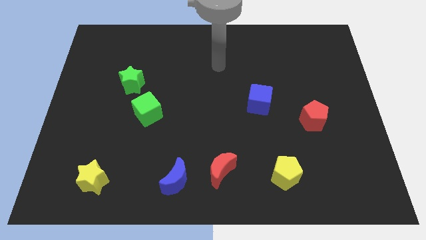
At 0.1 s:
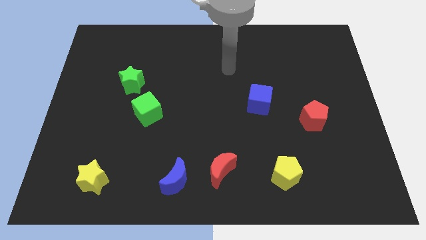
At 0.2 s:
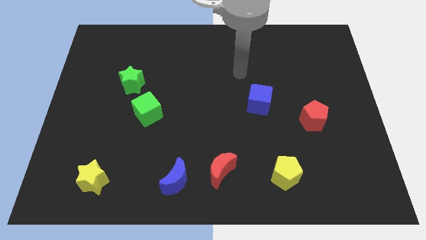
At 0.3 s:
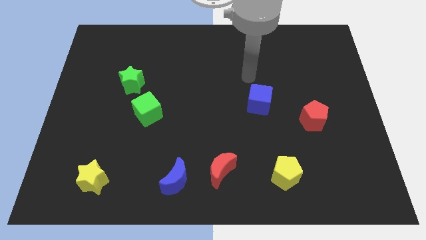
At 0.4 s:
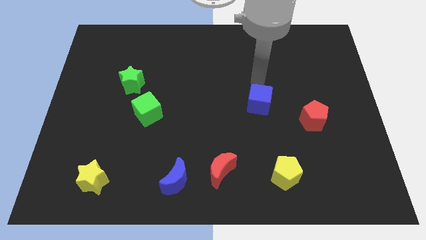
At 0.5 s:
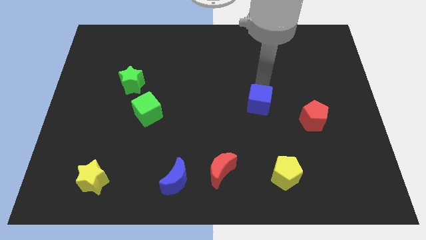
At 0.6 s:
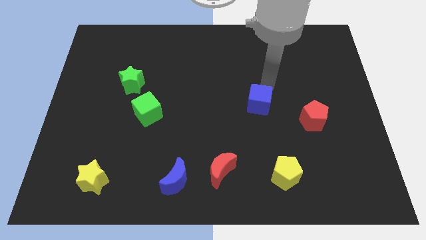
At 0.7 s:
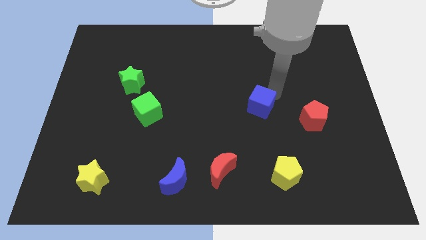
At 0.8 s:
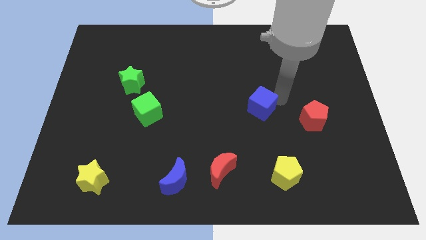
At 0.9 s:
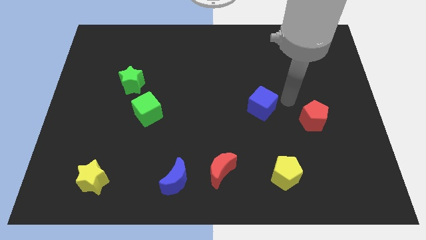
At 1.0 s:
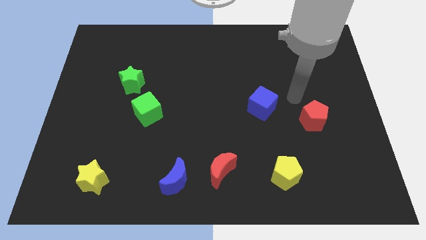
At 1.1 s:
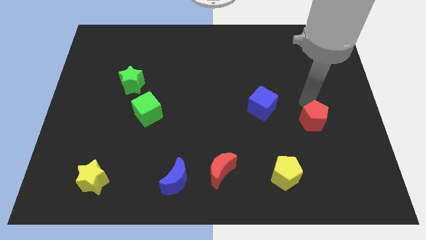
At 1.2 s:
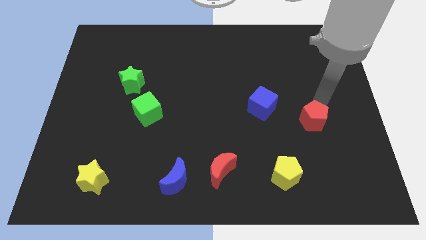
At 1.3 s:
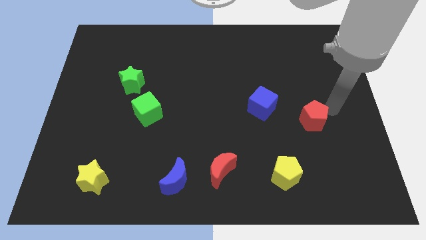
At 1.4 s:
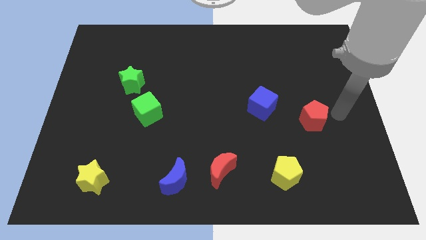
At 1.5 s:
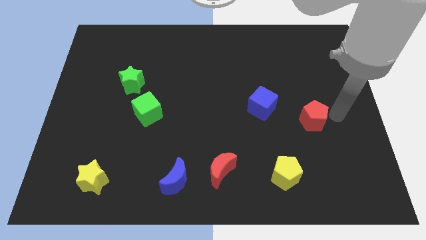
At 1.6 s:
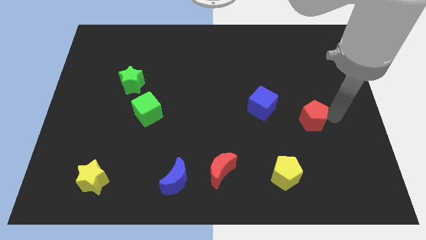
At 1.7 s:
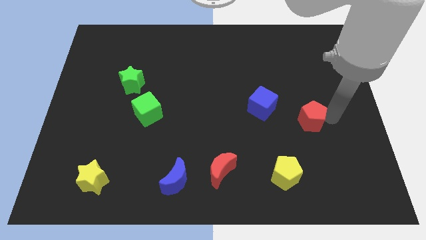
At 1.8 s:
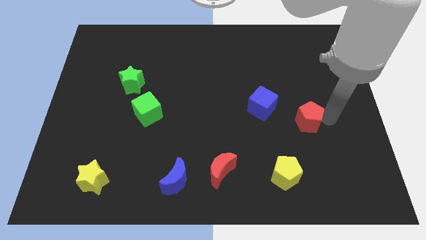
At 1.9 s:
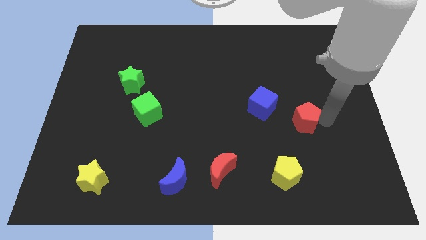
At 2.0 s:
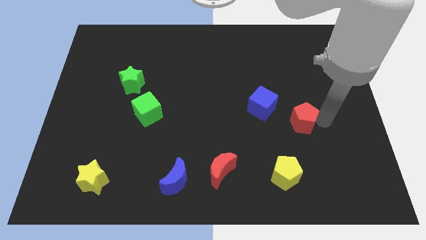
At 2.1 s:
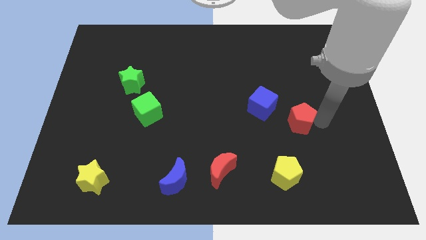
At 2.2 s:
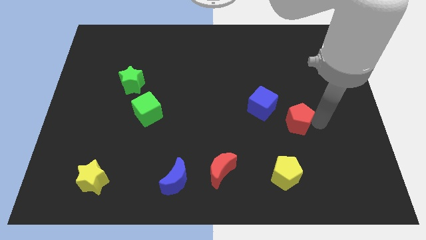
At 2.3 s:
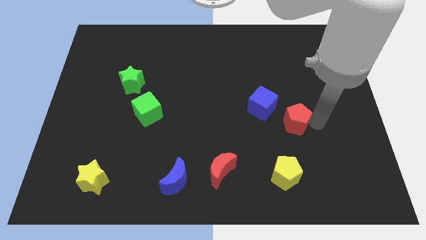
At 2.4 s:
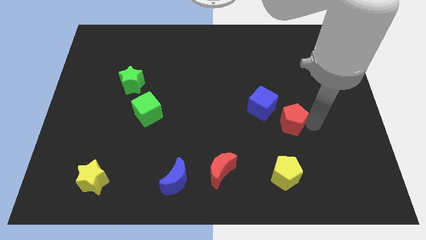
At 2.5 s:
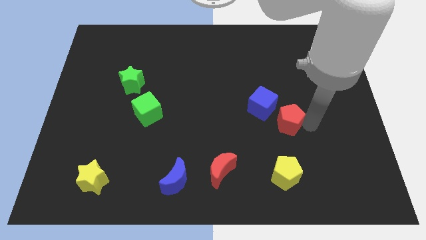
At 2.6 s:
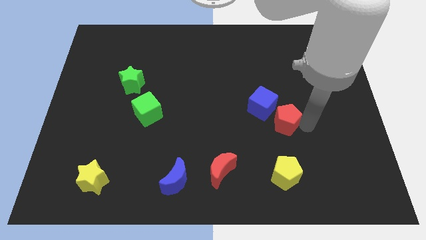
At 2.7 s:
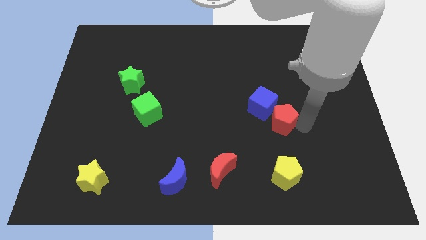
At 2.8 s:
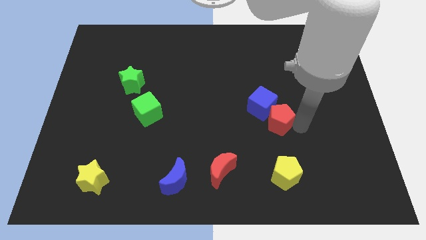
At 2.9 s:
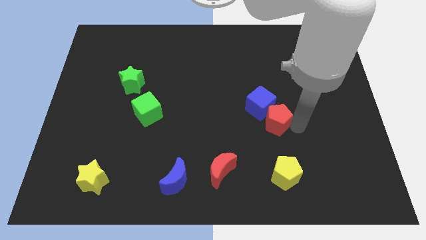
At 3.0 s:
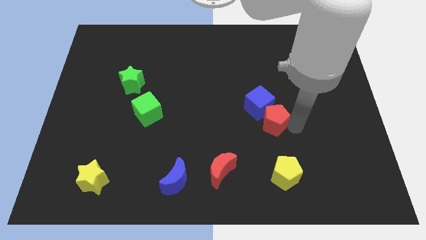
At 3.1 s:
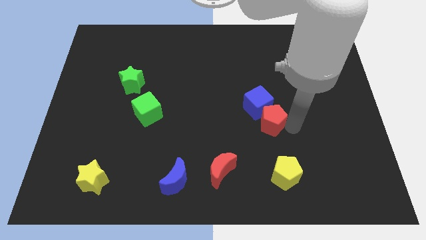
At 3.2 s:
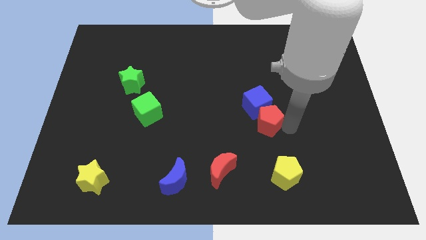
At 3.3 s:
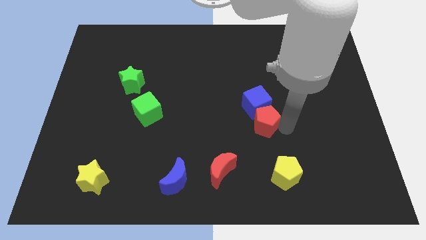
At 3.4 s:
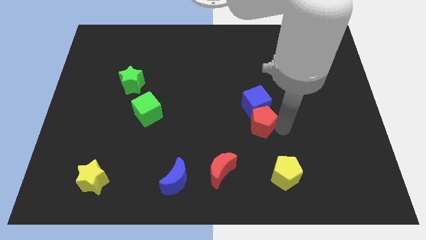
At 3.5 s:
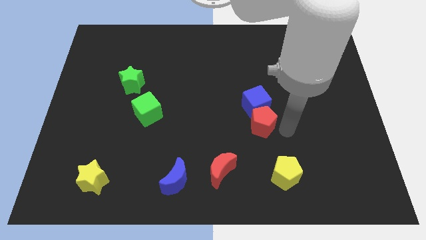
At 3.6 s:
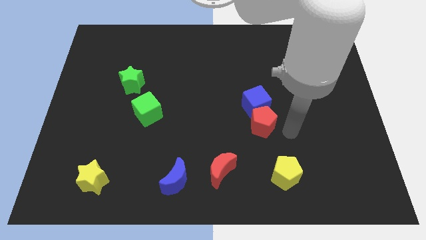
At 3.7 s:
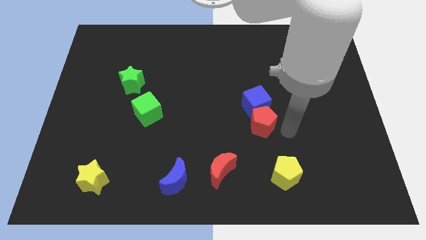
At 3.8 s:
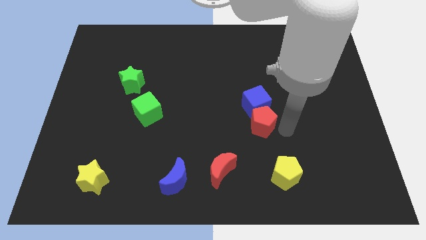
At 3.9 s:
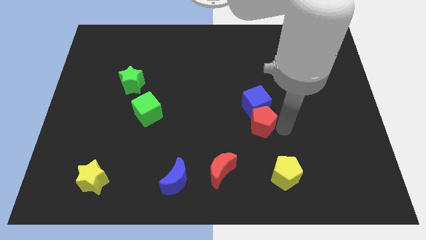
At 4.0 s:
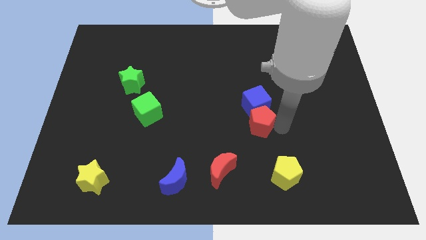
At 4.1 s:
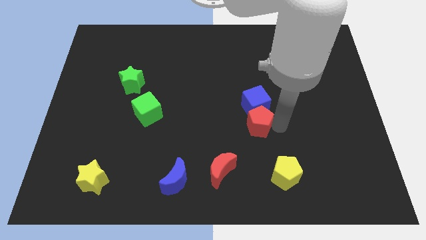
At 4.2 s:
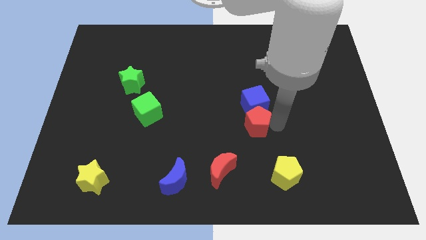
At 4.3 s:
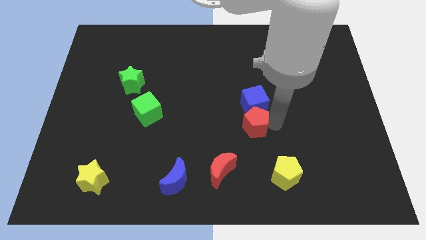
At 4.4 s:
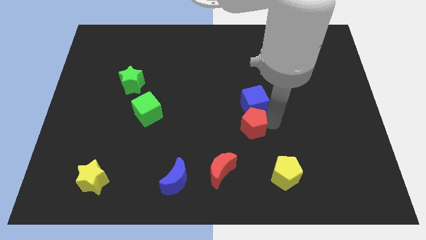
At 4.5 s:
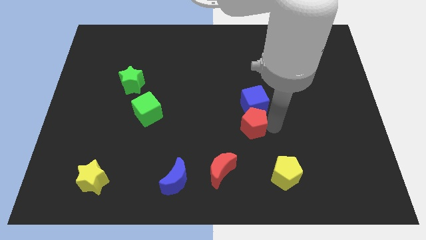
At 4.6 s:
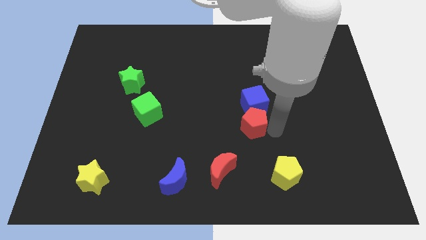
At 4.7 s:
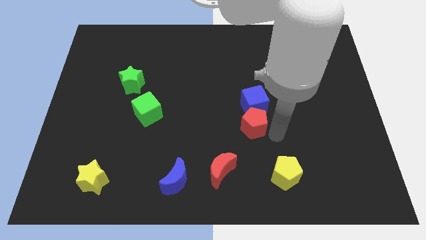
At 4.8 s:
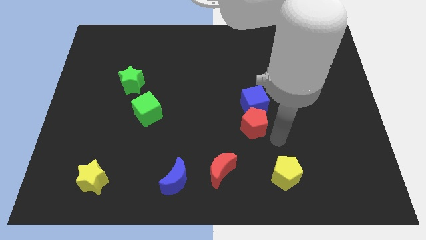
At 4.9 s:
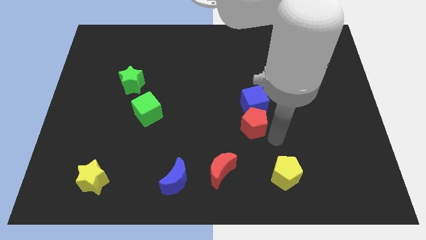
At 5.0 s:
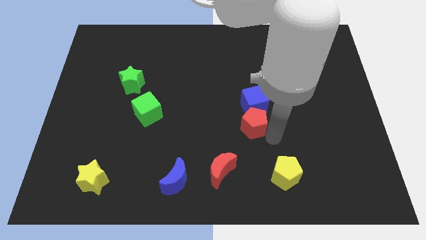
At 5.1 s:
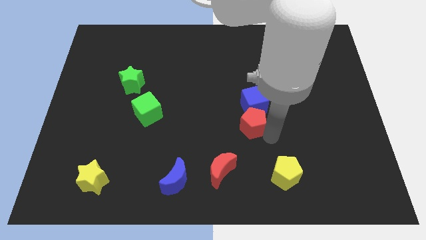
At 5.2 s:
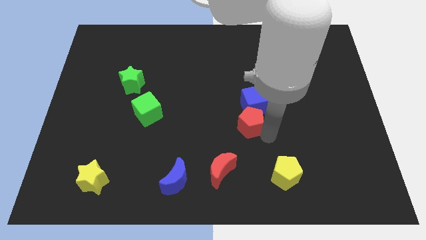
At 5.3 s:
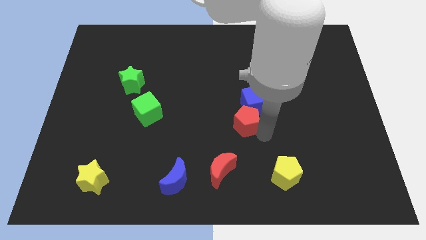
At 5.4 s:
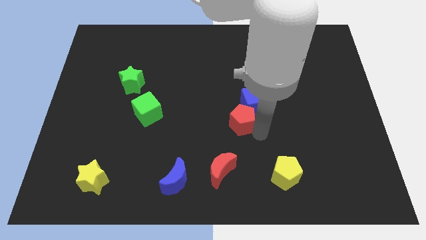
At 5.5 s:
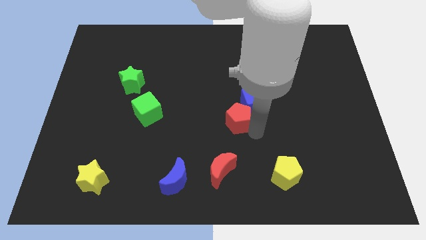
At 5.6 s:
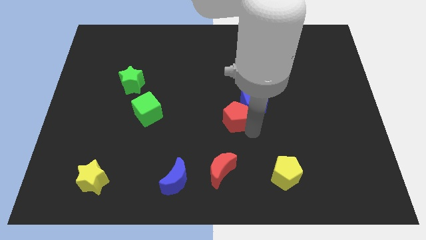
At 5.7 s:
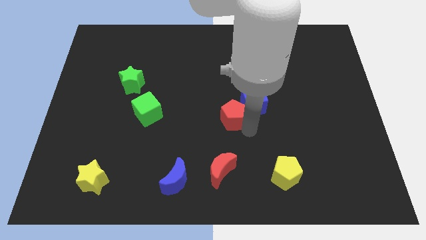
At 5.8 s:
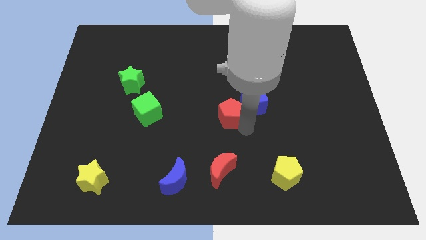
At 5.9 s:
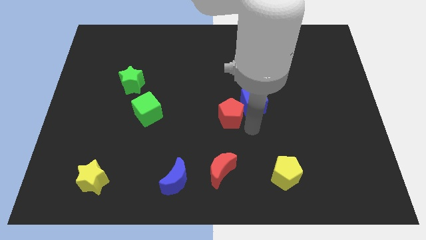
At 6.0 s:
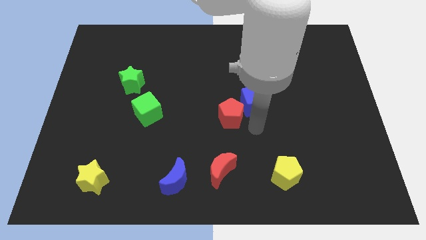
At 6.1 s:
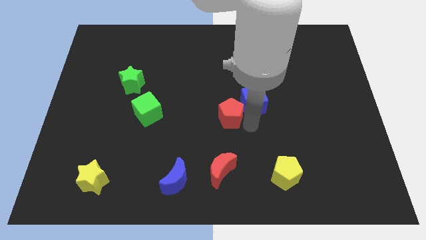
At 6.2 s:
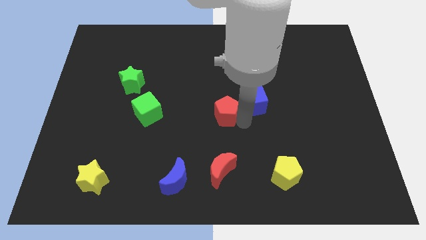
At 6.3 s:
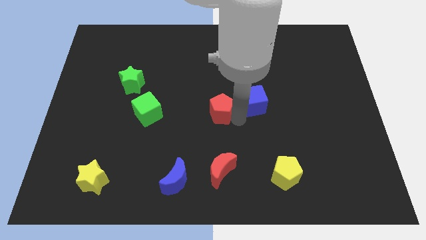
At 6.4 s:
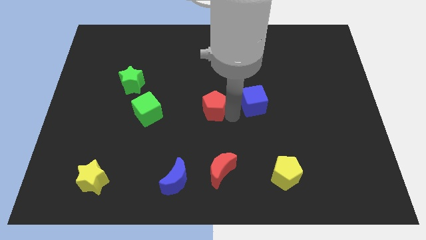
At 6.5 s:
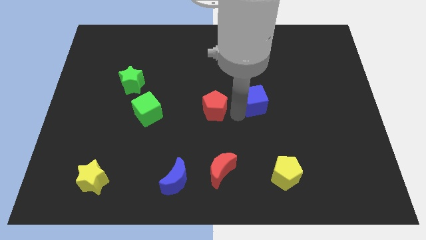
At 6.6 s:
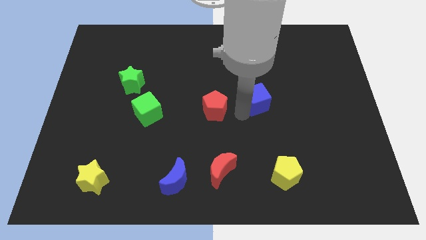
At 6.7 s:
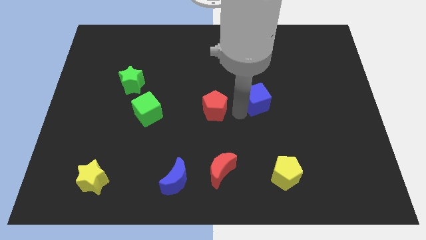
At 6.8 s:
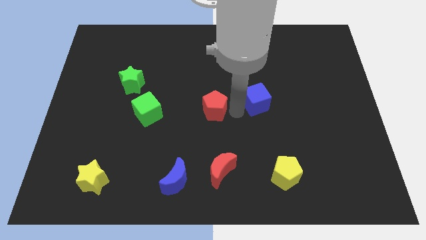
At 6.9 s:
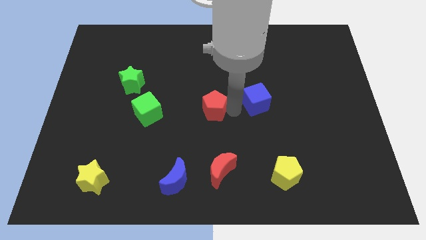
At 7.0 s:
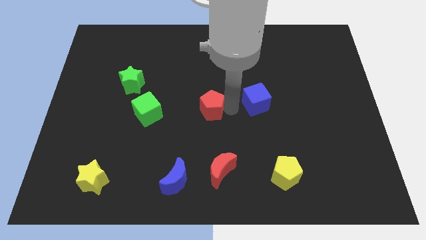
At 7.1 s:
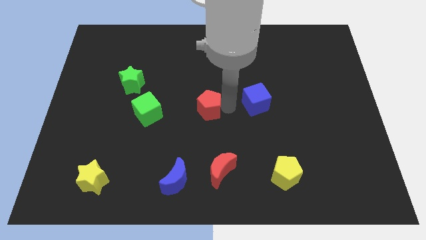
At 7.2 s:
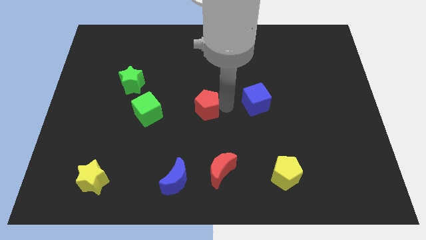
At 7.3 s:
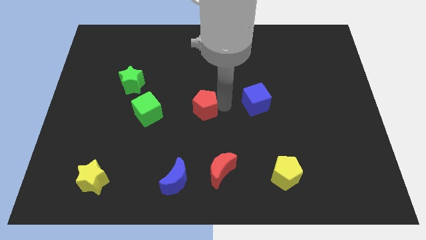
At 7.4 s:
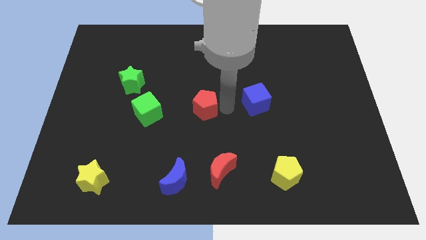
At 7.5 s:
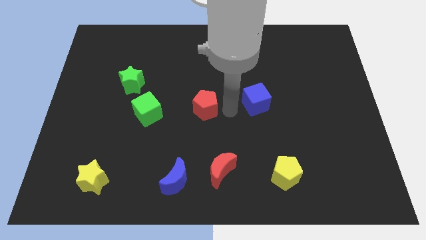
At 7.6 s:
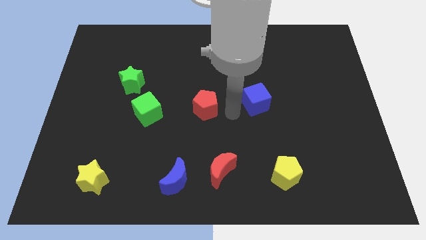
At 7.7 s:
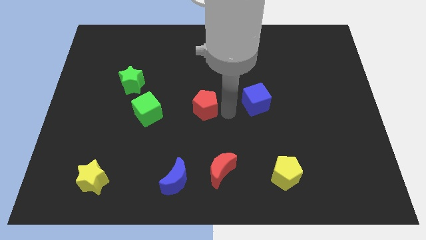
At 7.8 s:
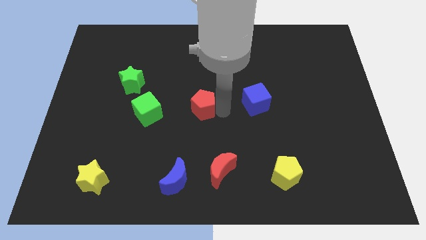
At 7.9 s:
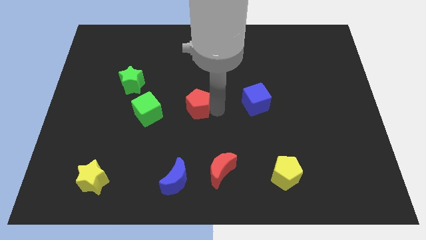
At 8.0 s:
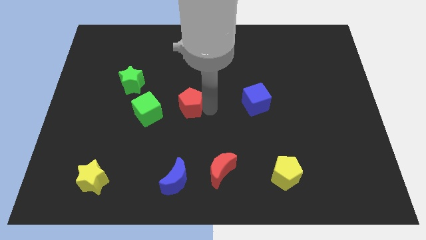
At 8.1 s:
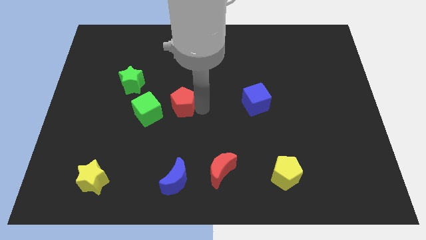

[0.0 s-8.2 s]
put the red pentagon diagonally up and to the right of the green cube
